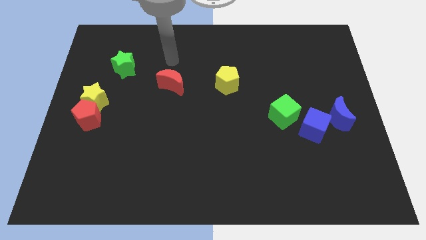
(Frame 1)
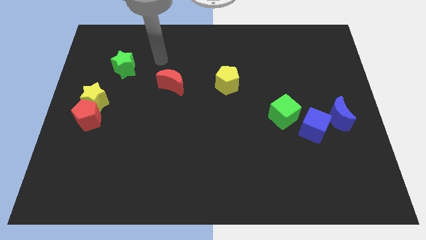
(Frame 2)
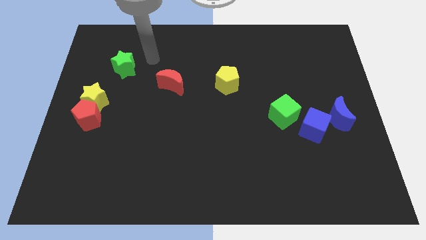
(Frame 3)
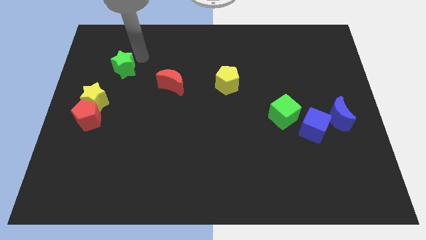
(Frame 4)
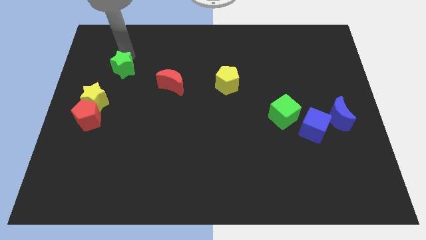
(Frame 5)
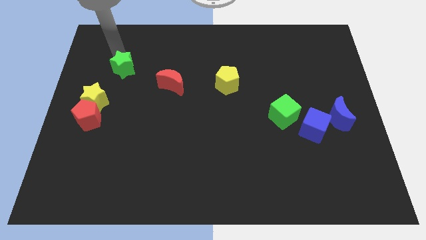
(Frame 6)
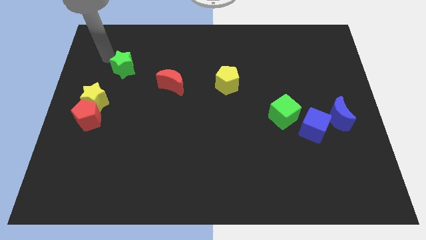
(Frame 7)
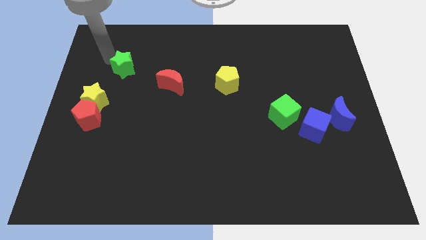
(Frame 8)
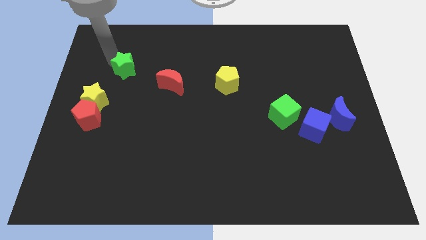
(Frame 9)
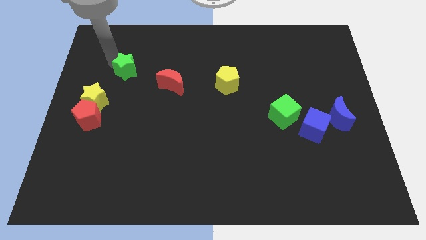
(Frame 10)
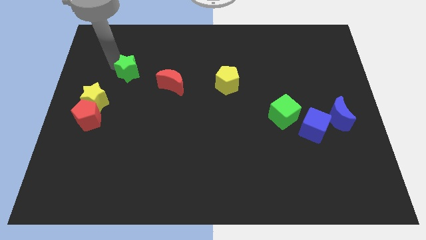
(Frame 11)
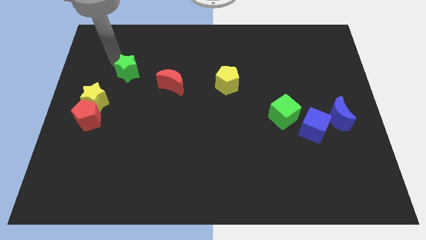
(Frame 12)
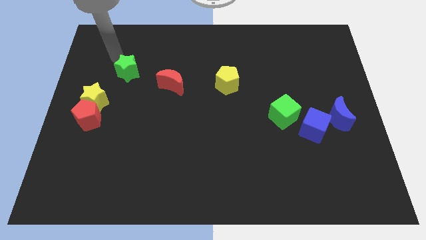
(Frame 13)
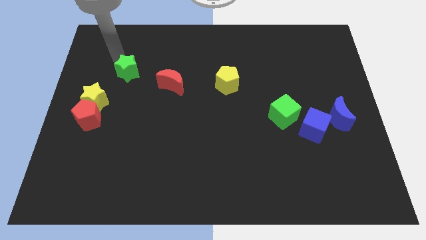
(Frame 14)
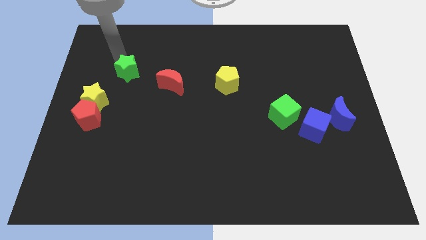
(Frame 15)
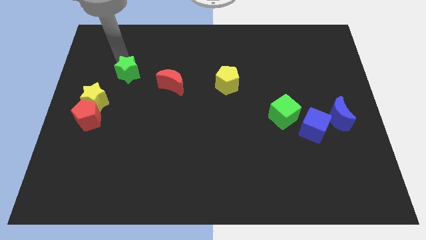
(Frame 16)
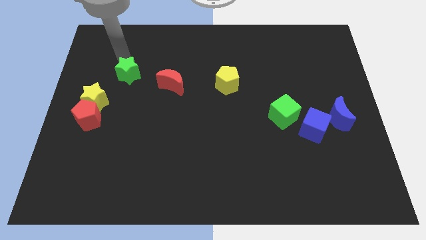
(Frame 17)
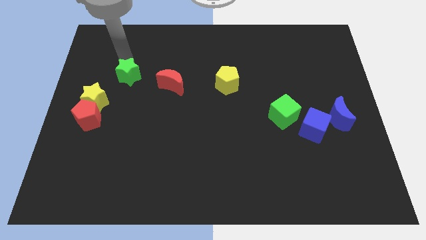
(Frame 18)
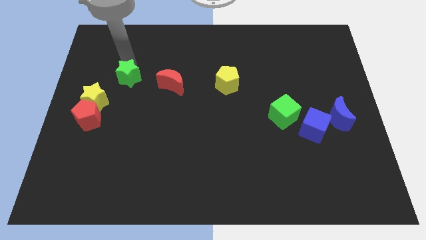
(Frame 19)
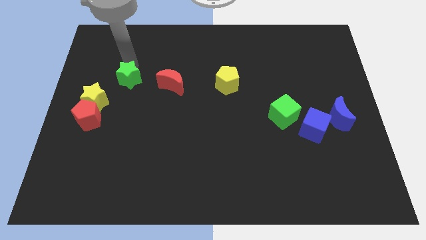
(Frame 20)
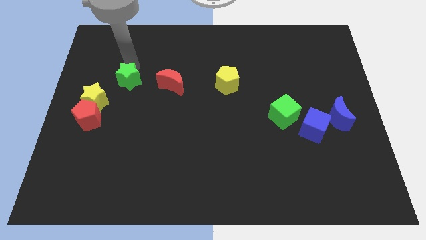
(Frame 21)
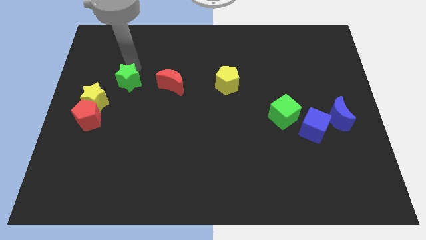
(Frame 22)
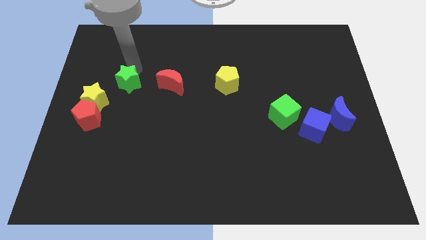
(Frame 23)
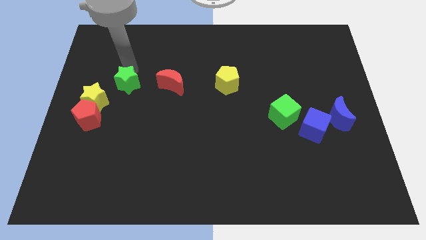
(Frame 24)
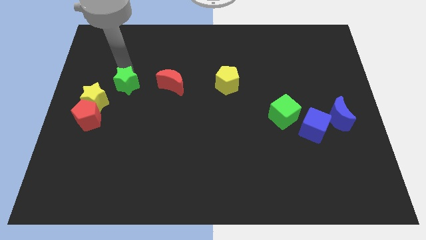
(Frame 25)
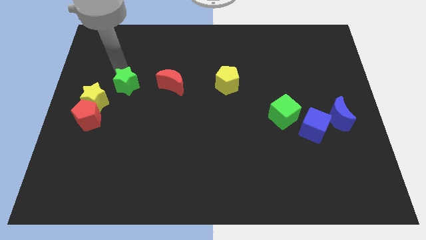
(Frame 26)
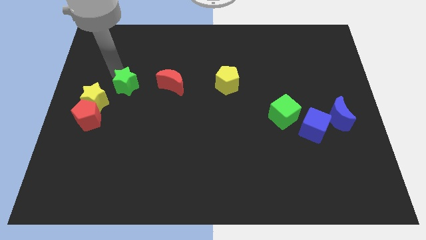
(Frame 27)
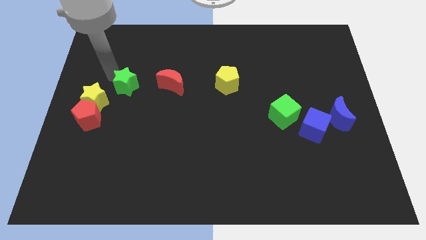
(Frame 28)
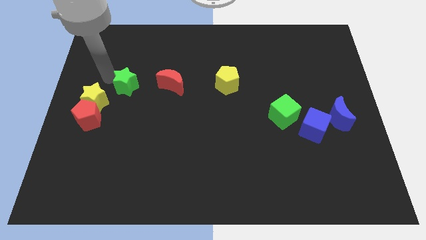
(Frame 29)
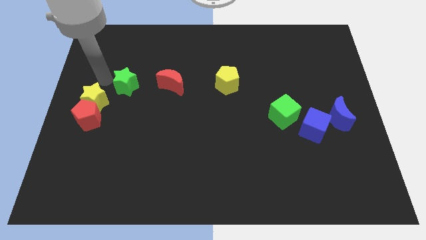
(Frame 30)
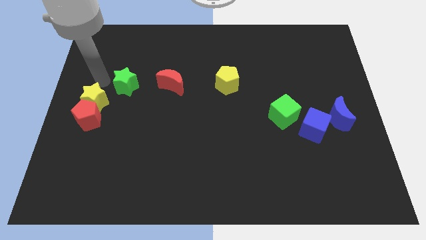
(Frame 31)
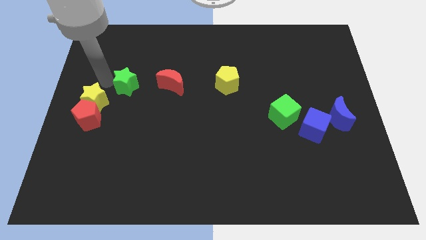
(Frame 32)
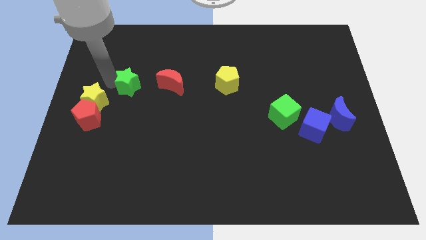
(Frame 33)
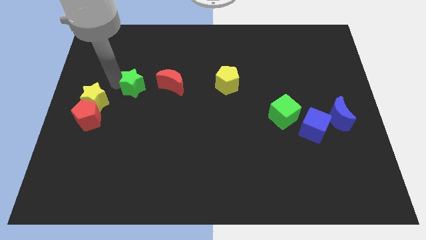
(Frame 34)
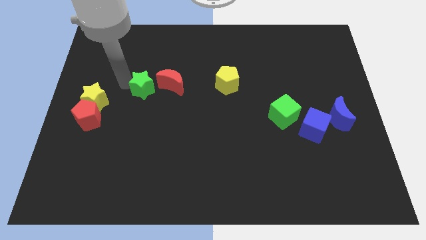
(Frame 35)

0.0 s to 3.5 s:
slightly slide the green star down and right diagonally

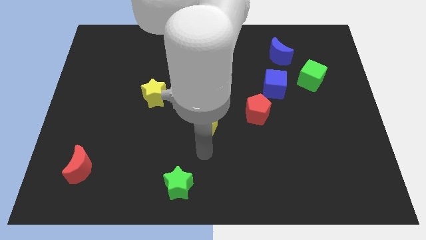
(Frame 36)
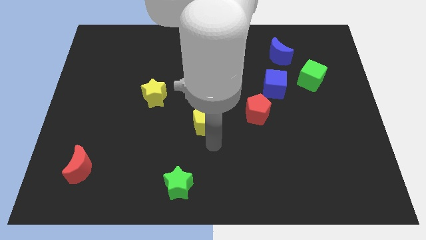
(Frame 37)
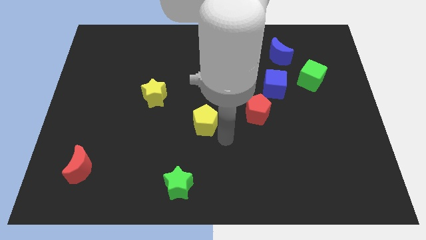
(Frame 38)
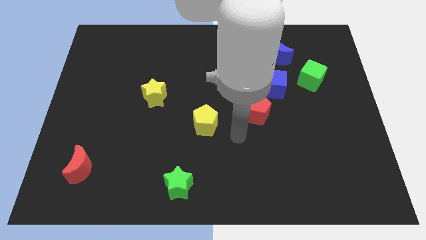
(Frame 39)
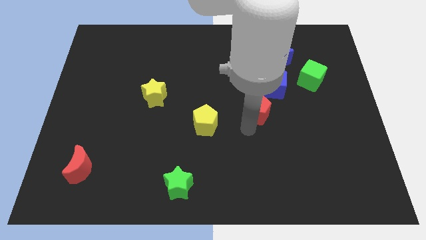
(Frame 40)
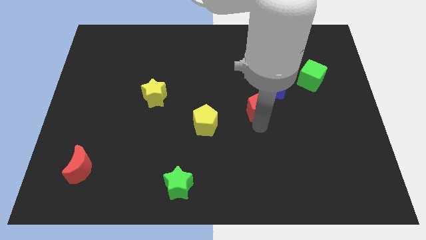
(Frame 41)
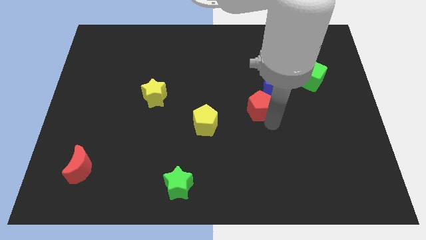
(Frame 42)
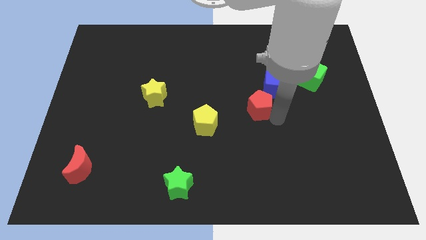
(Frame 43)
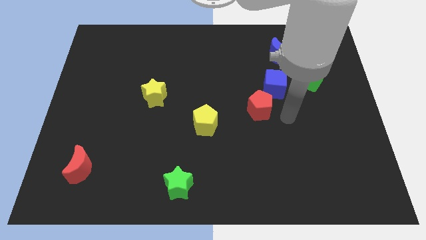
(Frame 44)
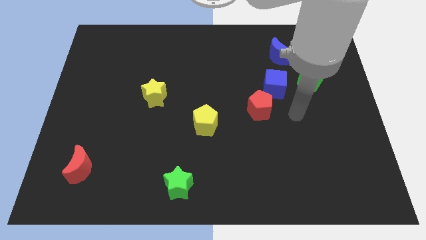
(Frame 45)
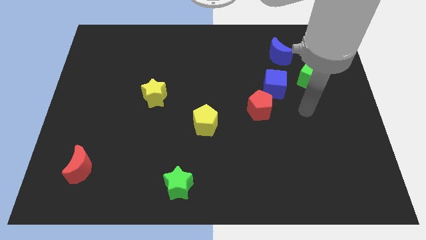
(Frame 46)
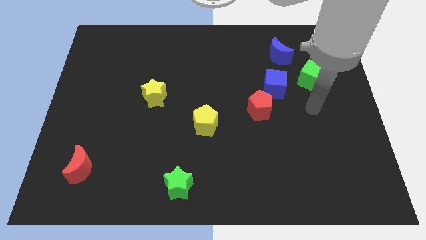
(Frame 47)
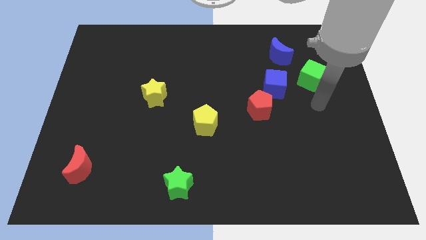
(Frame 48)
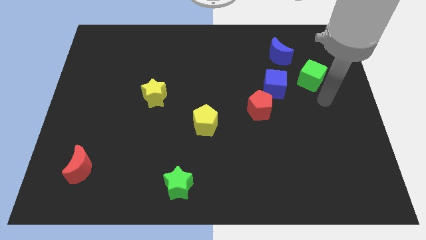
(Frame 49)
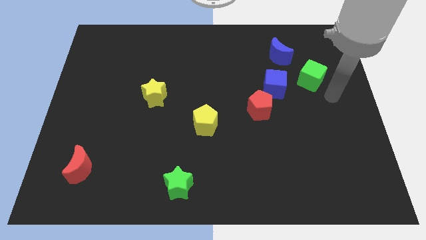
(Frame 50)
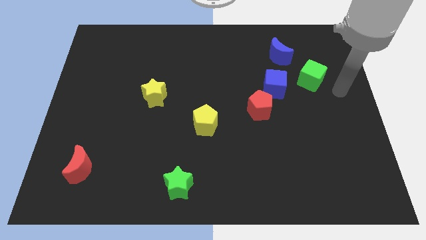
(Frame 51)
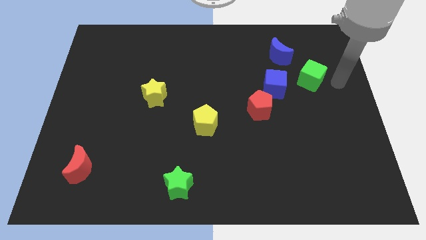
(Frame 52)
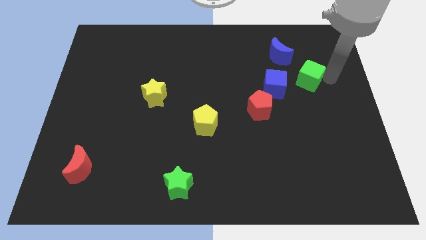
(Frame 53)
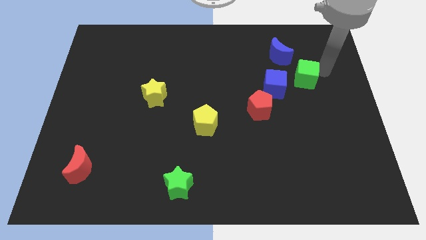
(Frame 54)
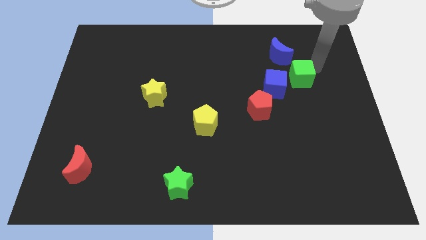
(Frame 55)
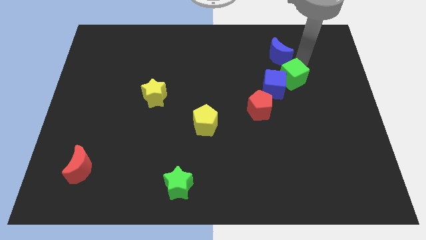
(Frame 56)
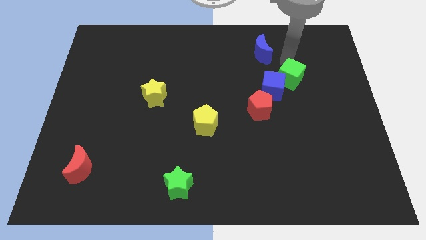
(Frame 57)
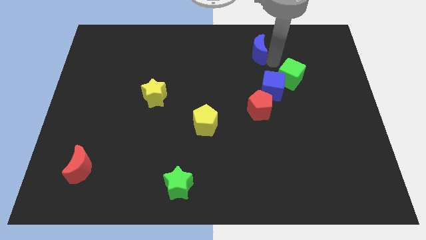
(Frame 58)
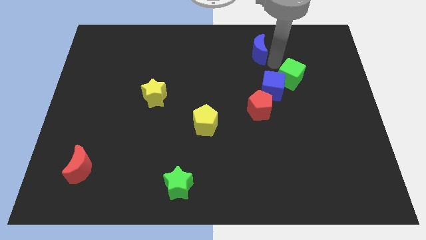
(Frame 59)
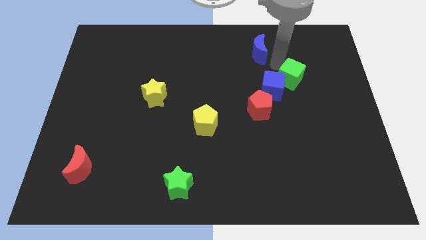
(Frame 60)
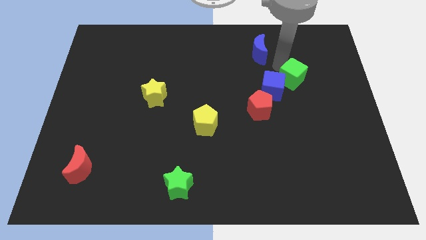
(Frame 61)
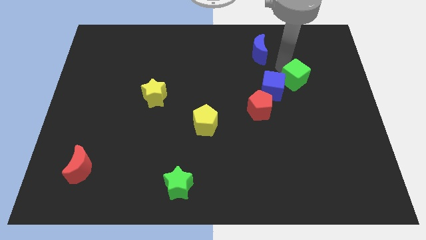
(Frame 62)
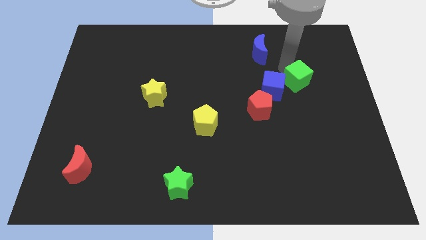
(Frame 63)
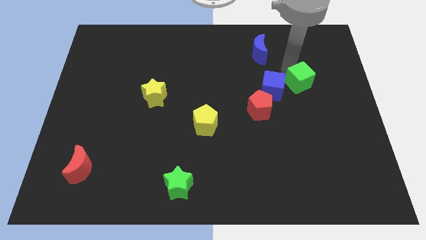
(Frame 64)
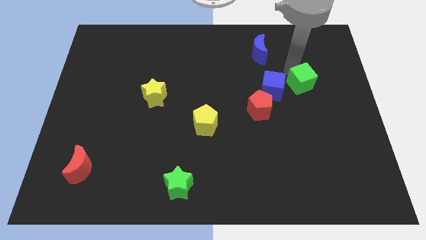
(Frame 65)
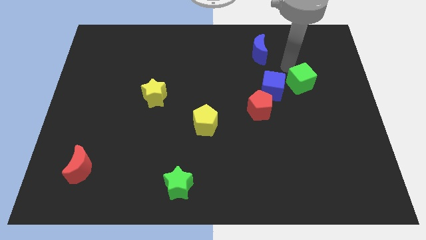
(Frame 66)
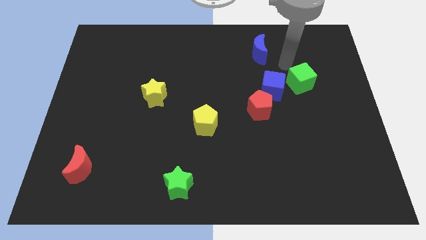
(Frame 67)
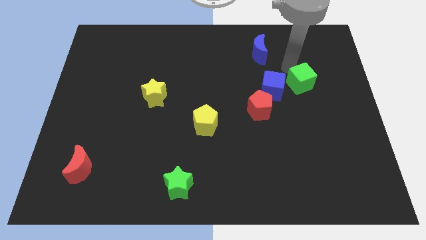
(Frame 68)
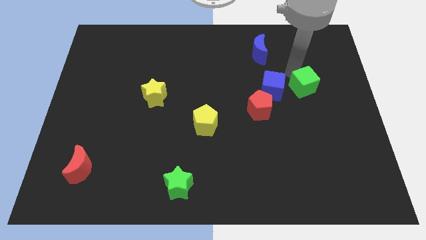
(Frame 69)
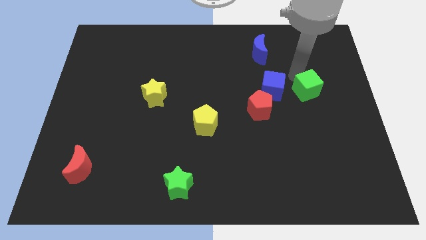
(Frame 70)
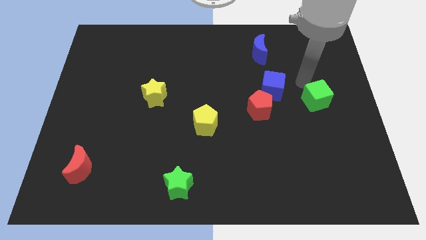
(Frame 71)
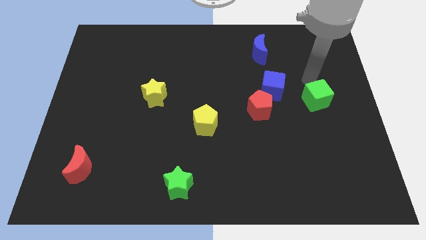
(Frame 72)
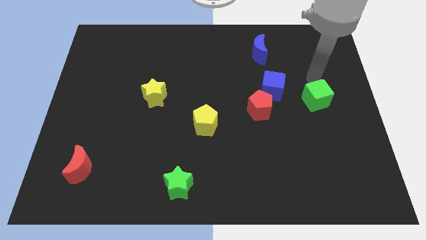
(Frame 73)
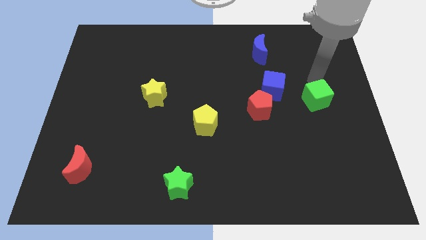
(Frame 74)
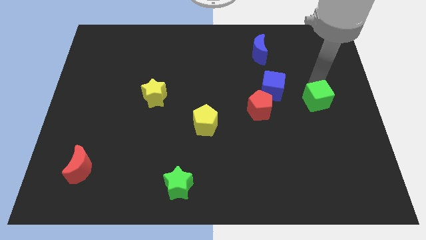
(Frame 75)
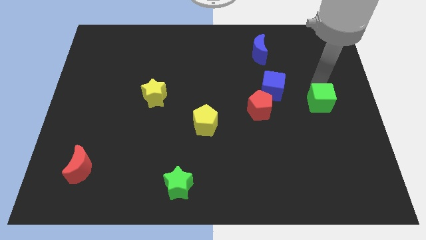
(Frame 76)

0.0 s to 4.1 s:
move the green cube slightly downwards

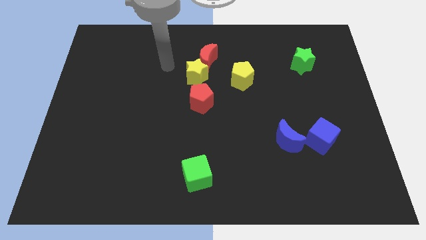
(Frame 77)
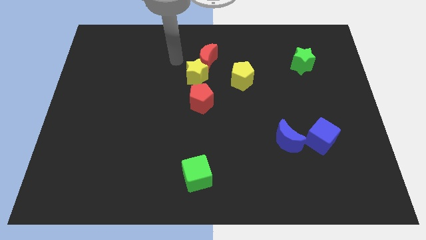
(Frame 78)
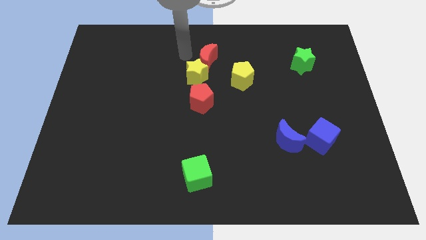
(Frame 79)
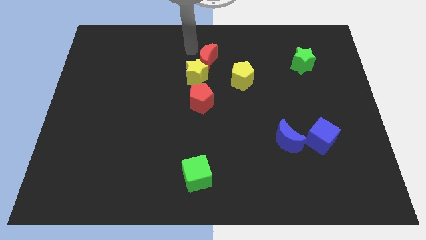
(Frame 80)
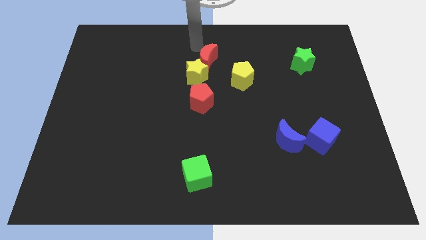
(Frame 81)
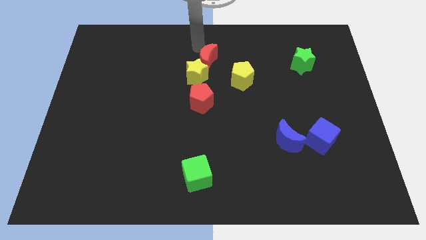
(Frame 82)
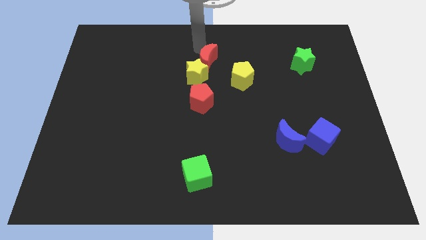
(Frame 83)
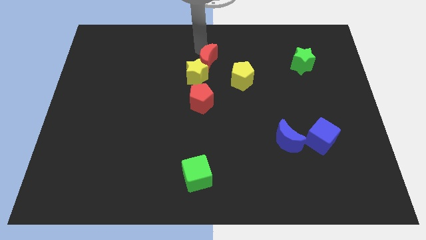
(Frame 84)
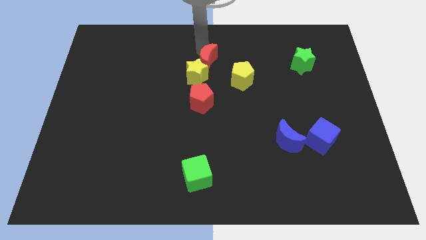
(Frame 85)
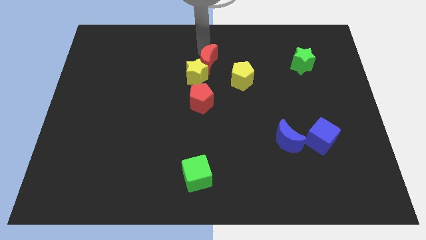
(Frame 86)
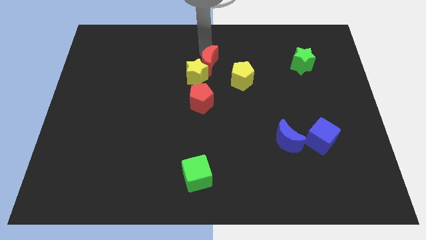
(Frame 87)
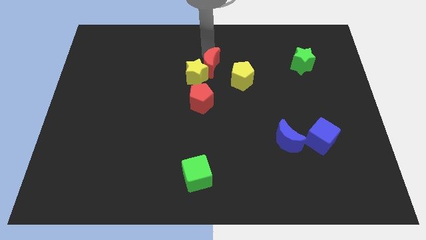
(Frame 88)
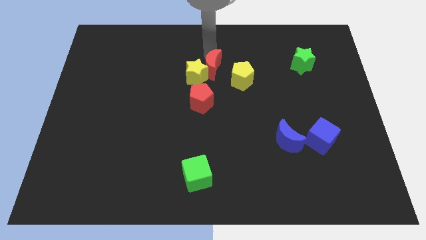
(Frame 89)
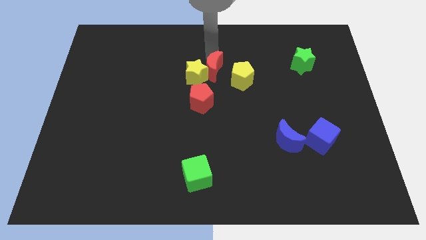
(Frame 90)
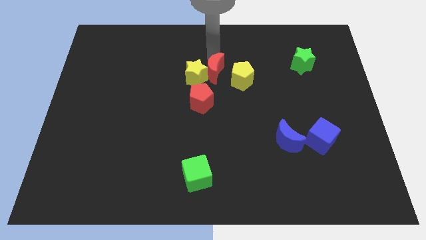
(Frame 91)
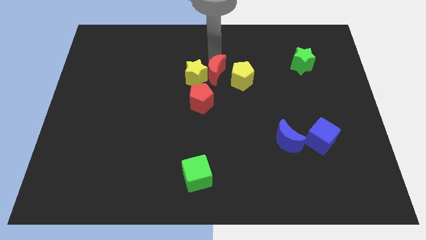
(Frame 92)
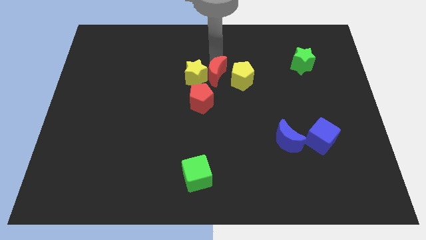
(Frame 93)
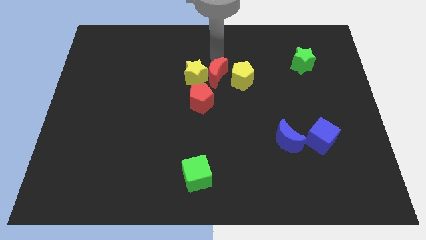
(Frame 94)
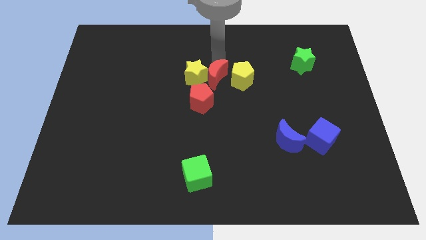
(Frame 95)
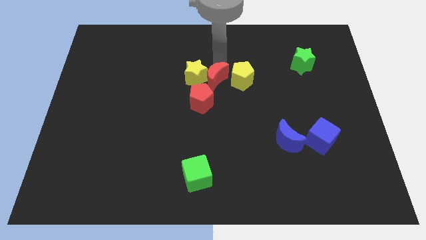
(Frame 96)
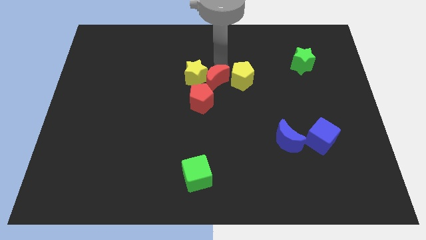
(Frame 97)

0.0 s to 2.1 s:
push the red moon a bit down
